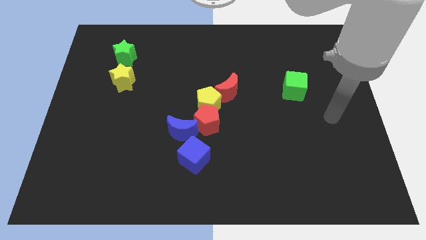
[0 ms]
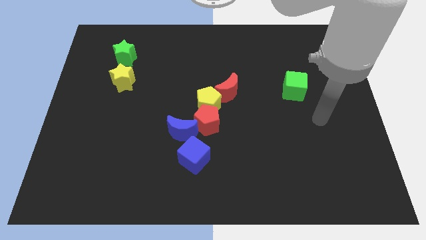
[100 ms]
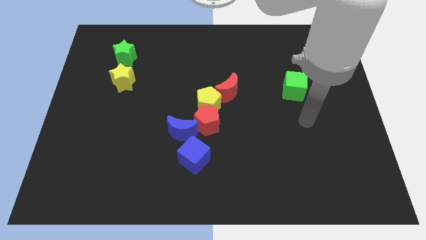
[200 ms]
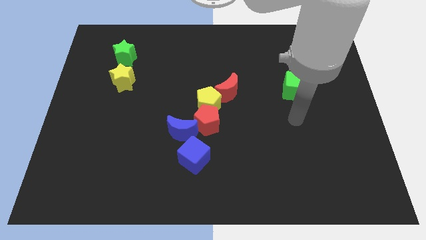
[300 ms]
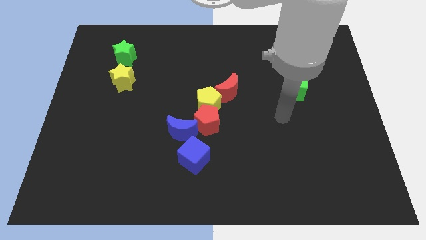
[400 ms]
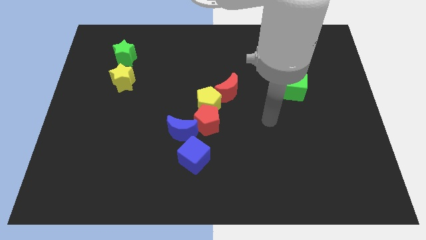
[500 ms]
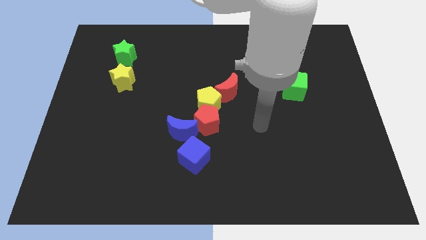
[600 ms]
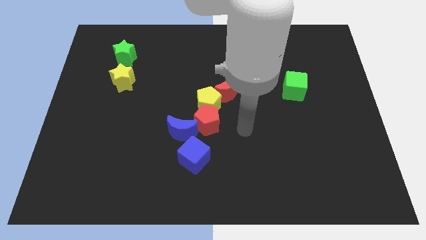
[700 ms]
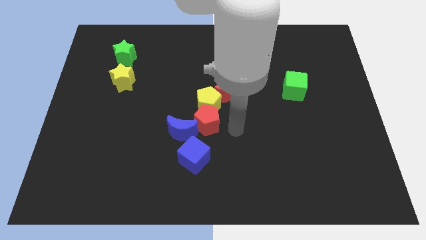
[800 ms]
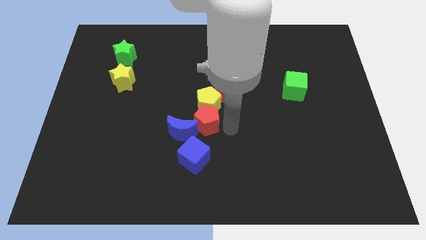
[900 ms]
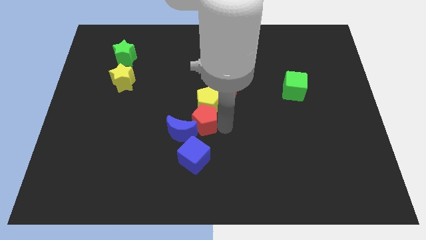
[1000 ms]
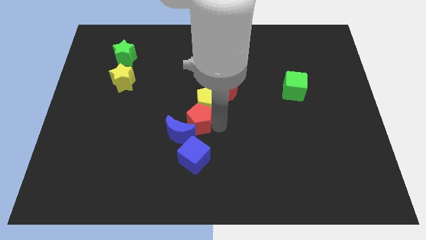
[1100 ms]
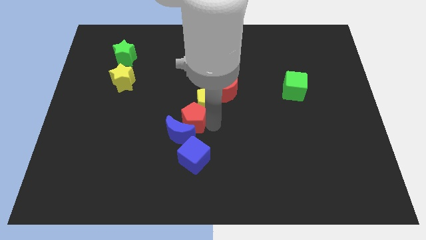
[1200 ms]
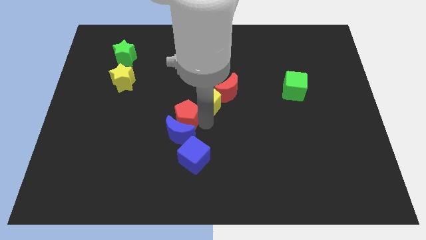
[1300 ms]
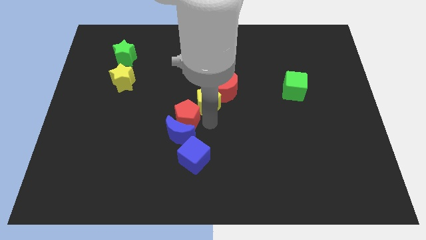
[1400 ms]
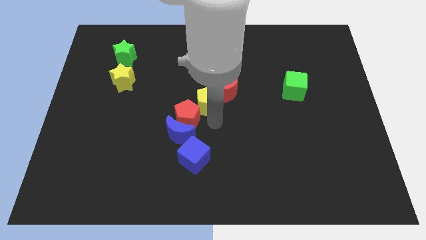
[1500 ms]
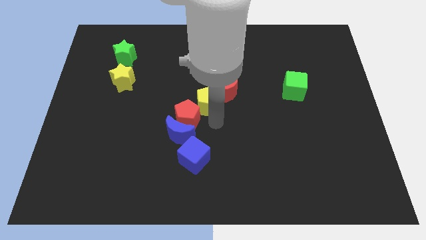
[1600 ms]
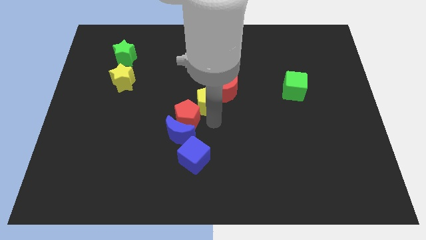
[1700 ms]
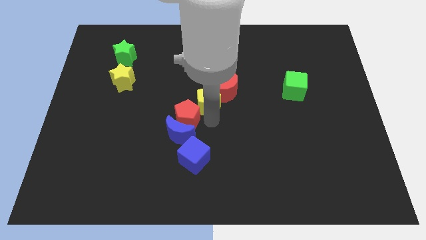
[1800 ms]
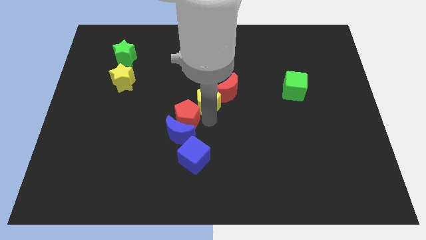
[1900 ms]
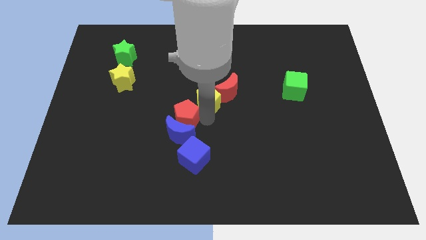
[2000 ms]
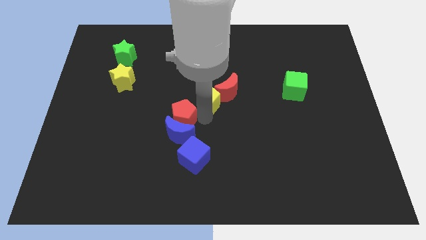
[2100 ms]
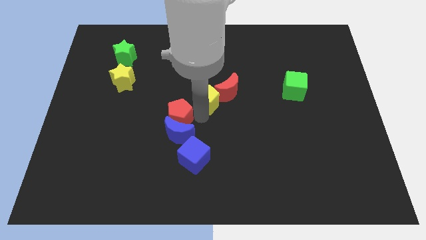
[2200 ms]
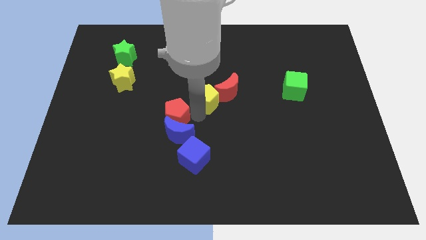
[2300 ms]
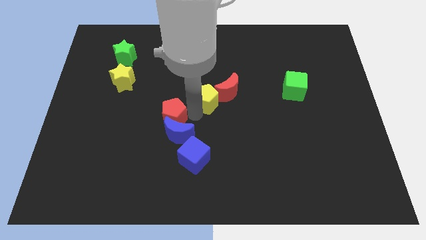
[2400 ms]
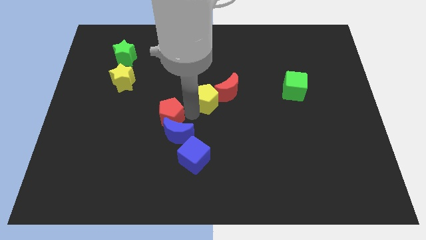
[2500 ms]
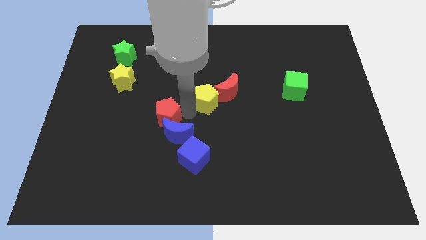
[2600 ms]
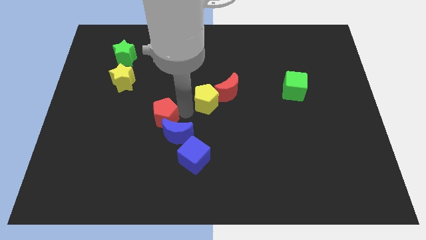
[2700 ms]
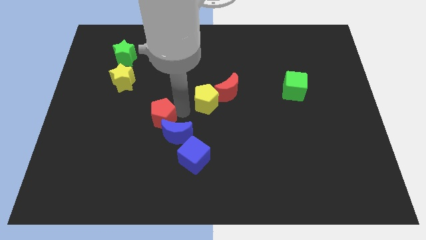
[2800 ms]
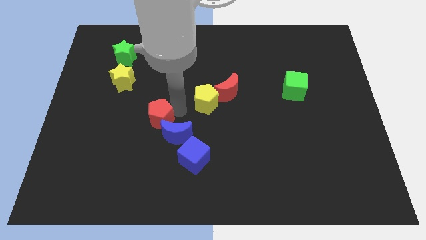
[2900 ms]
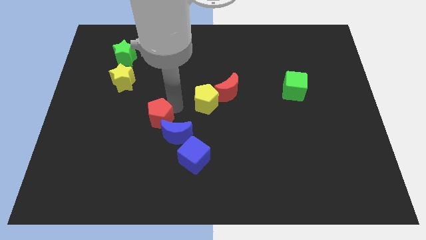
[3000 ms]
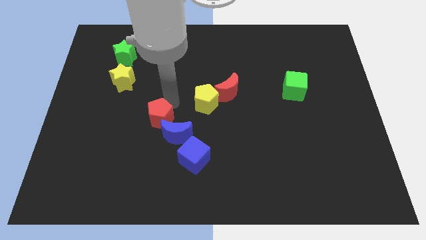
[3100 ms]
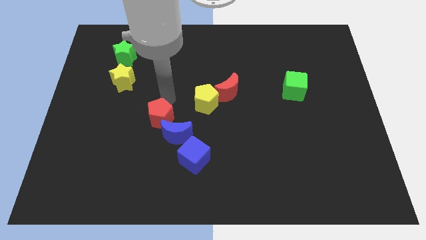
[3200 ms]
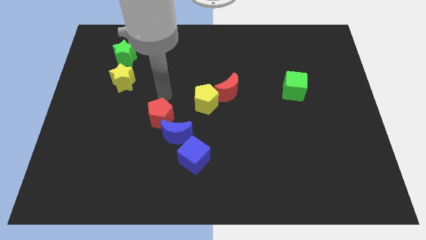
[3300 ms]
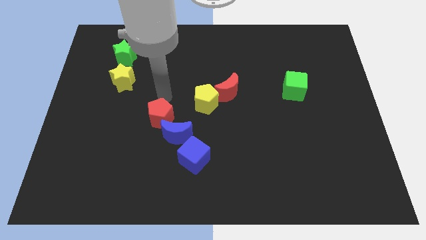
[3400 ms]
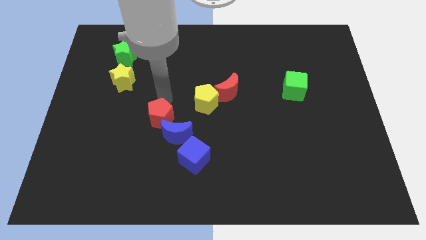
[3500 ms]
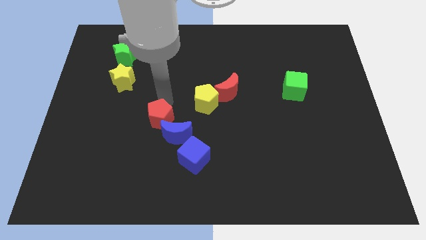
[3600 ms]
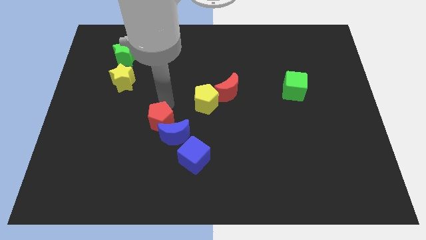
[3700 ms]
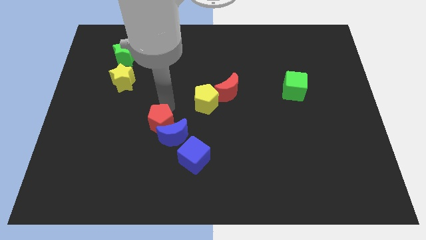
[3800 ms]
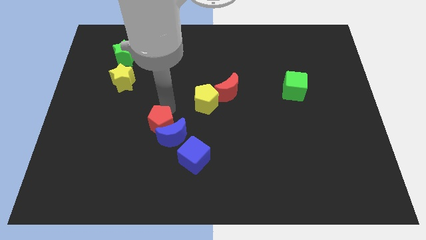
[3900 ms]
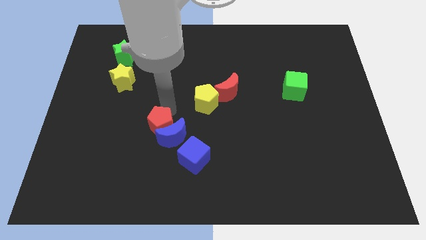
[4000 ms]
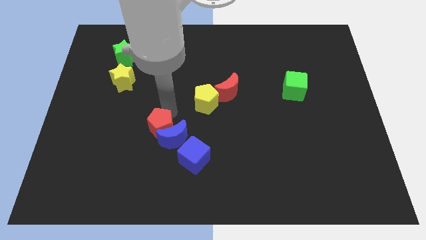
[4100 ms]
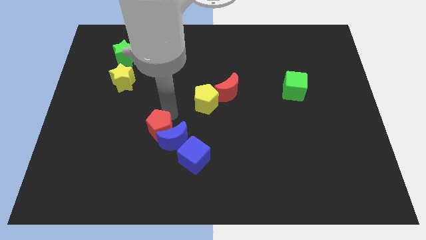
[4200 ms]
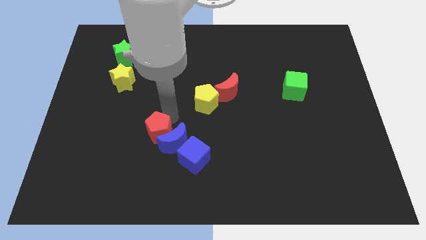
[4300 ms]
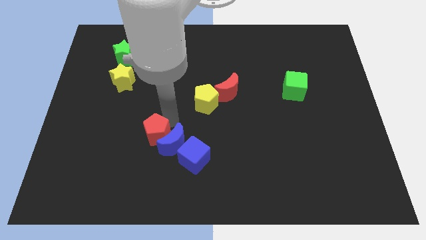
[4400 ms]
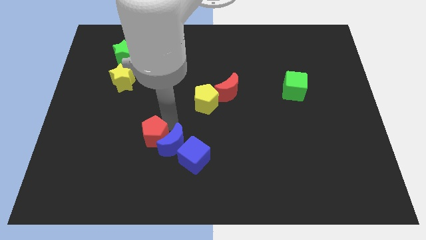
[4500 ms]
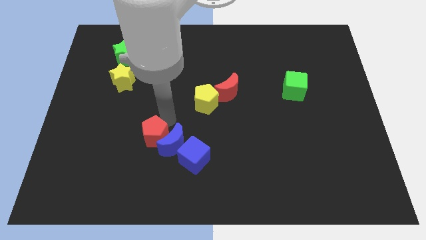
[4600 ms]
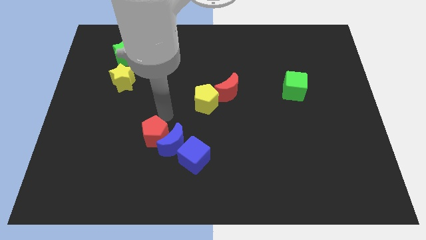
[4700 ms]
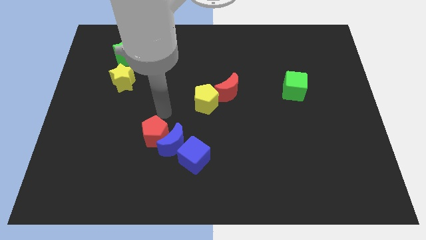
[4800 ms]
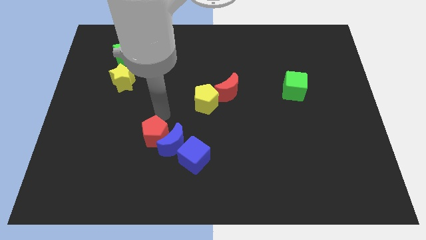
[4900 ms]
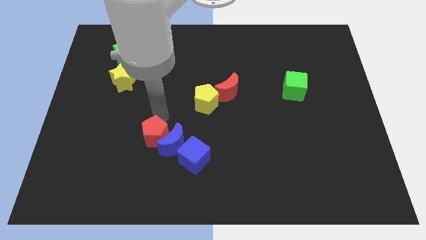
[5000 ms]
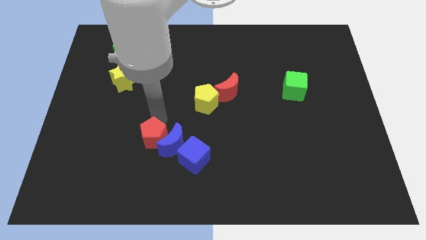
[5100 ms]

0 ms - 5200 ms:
move the red pentagon to the bottom left side of the blue moon

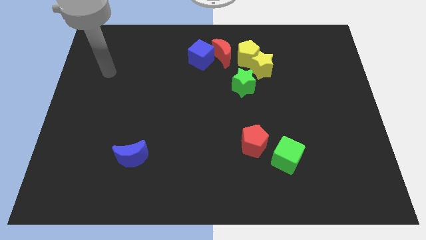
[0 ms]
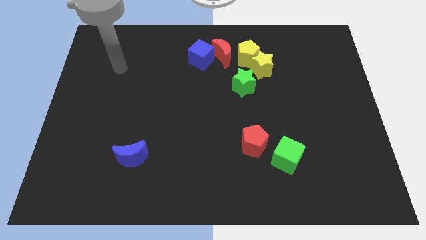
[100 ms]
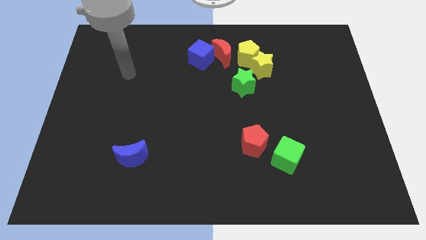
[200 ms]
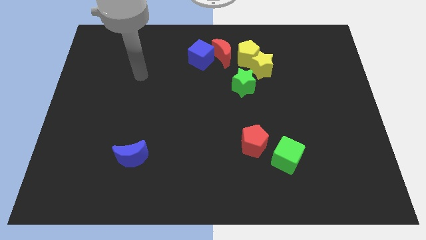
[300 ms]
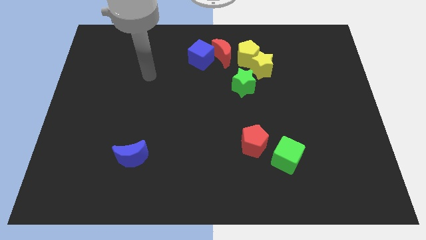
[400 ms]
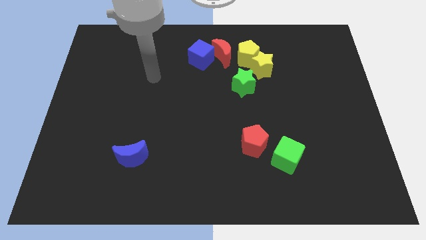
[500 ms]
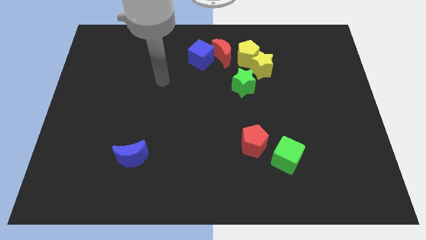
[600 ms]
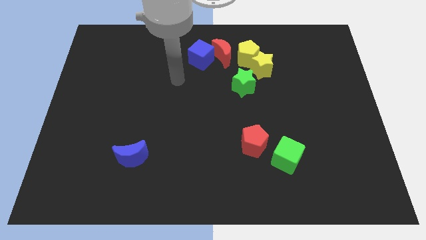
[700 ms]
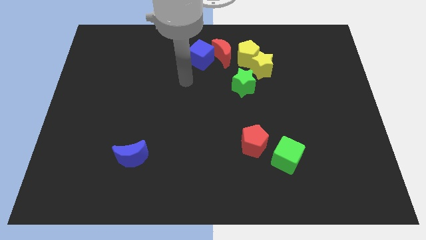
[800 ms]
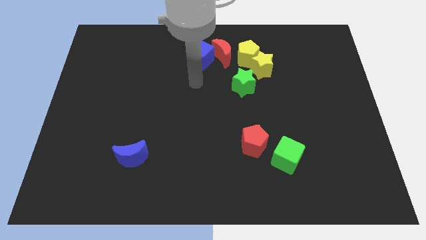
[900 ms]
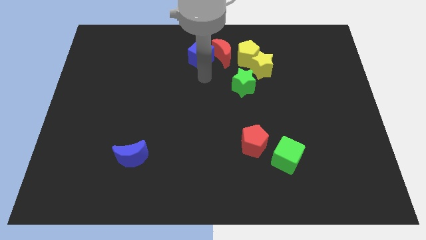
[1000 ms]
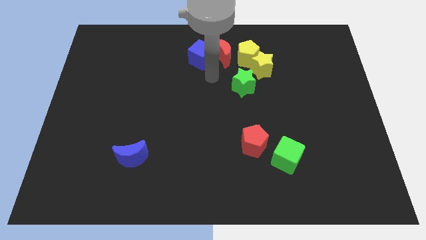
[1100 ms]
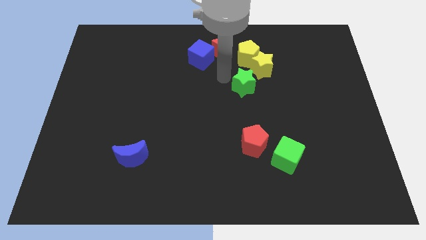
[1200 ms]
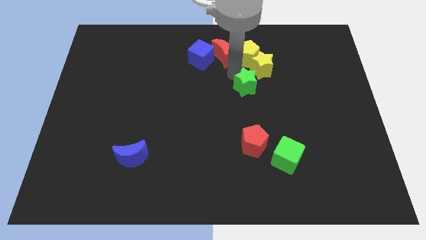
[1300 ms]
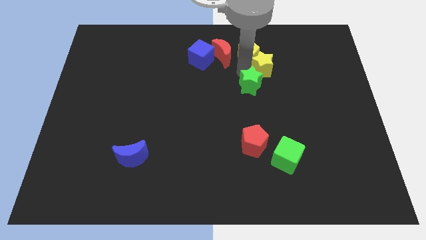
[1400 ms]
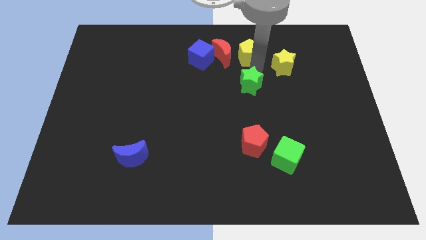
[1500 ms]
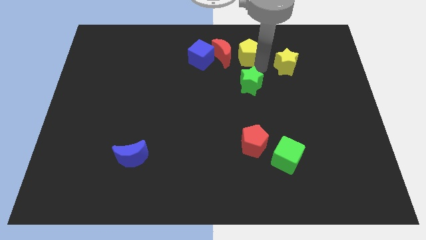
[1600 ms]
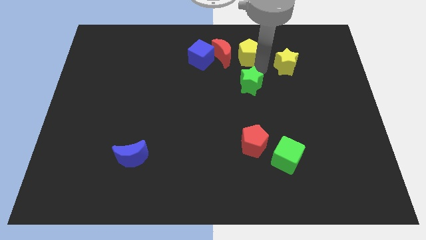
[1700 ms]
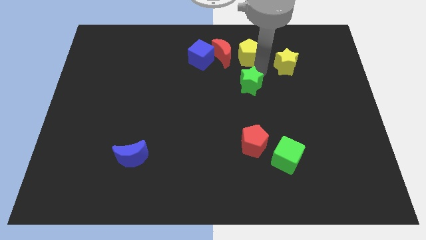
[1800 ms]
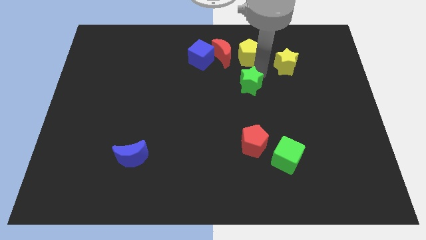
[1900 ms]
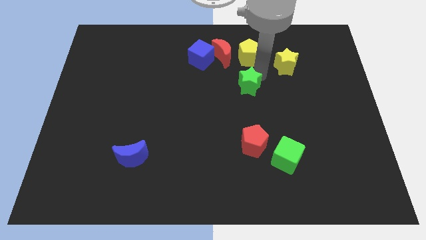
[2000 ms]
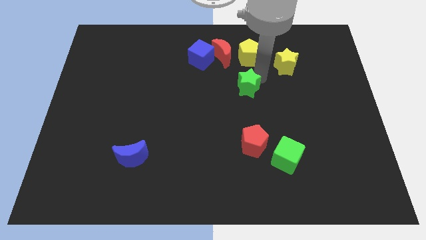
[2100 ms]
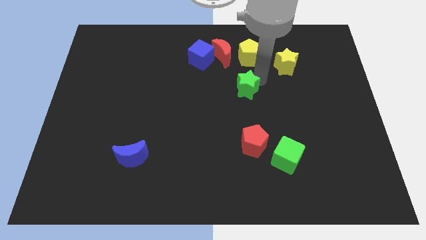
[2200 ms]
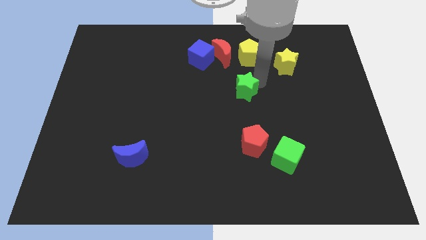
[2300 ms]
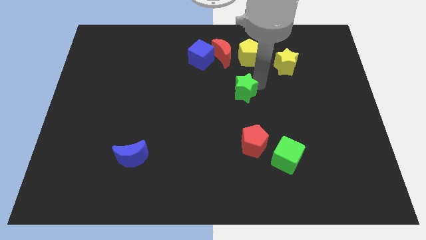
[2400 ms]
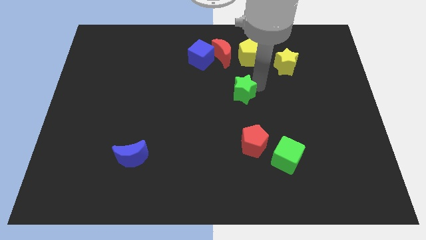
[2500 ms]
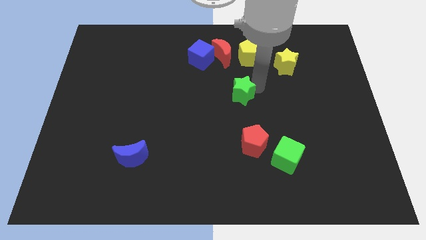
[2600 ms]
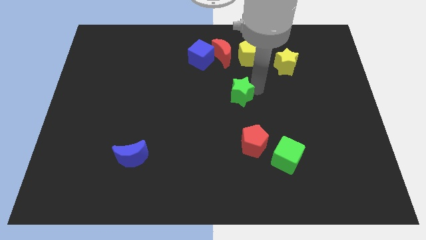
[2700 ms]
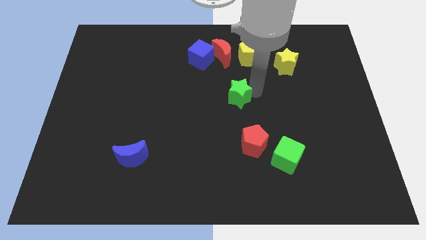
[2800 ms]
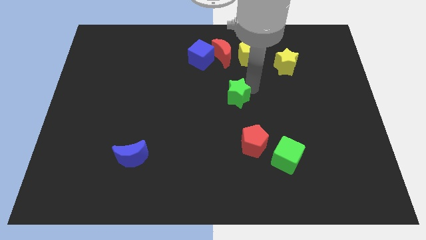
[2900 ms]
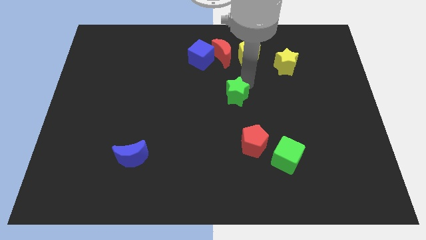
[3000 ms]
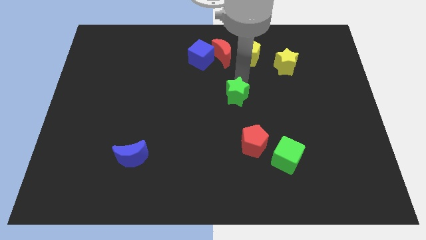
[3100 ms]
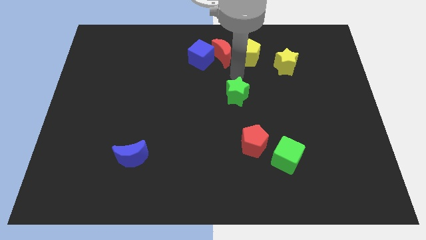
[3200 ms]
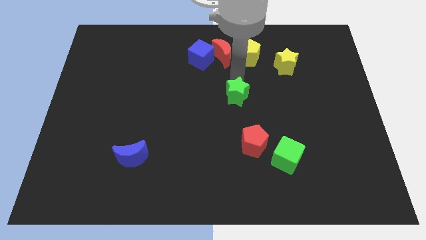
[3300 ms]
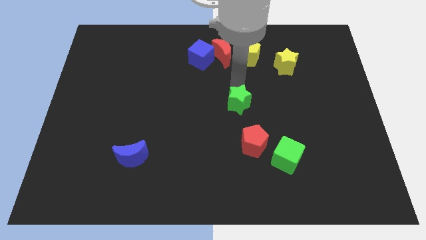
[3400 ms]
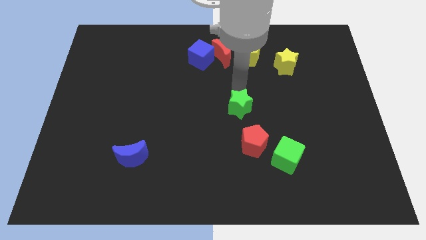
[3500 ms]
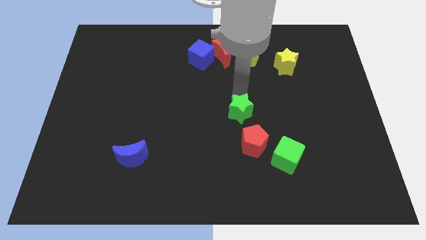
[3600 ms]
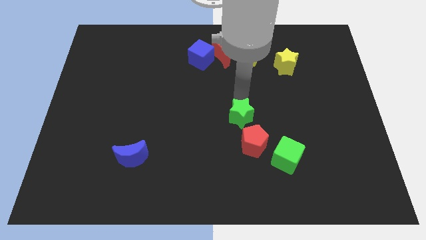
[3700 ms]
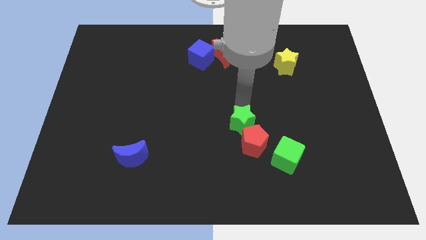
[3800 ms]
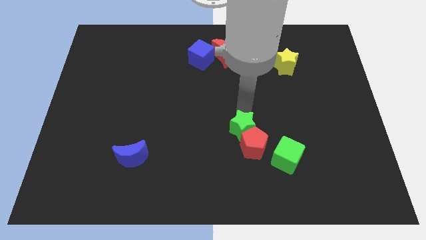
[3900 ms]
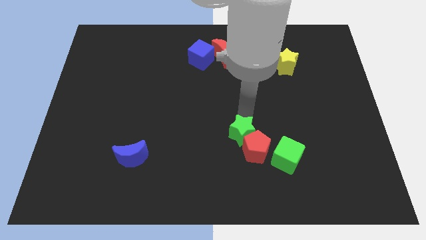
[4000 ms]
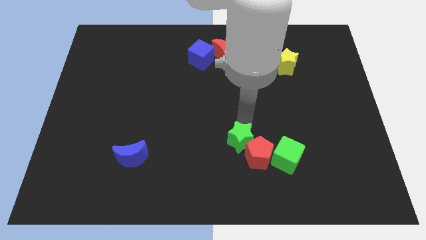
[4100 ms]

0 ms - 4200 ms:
slide the green star just left of the green cube
